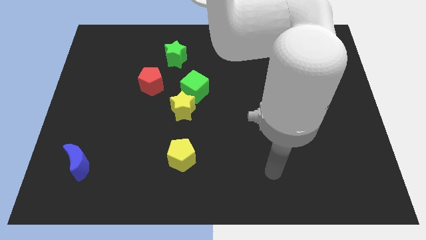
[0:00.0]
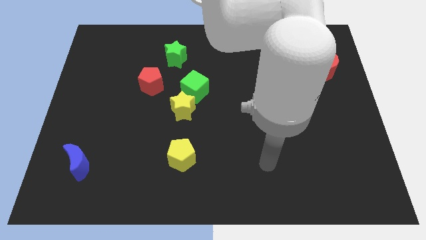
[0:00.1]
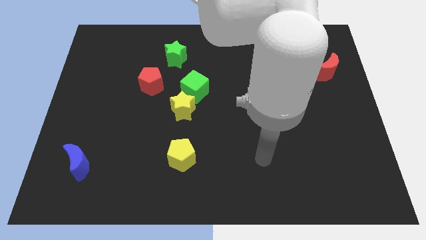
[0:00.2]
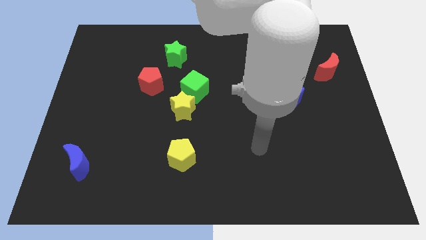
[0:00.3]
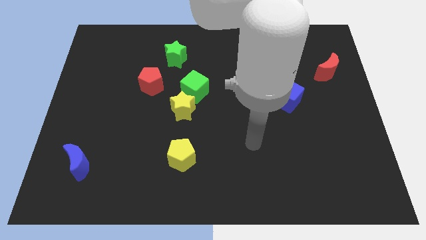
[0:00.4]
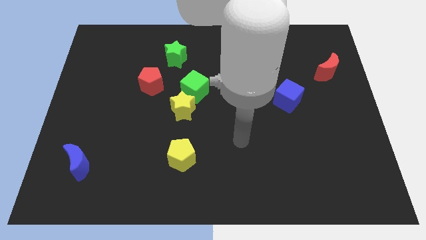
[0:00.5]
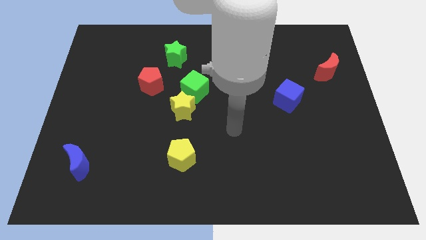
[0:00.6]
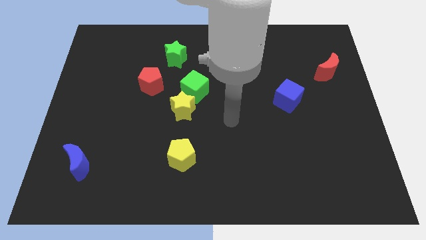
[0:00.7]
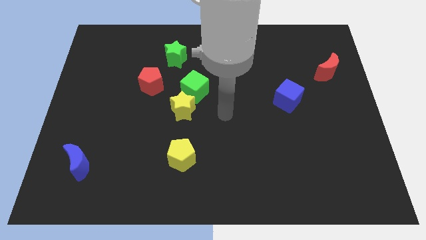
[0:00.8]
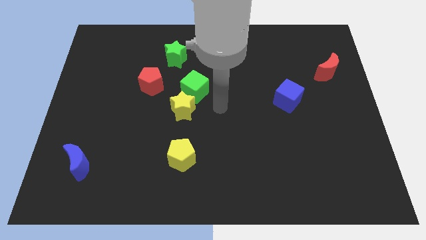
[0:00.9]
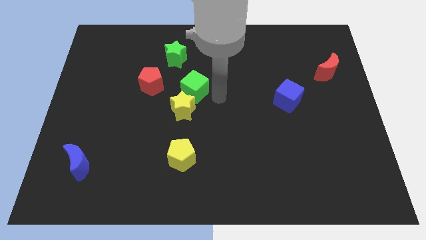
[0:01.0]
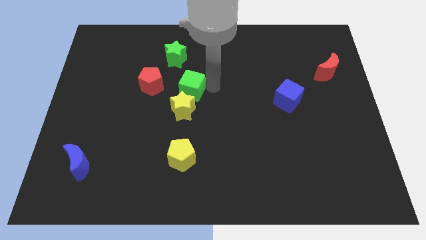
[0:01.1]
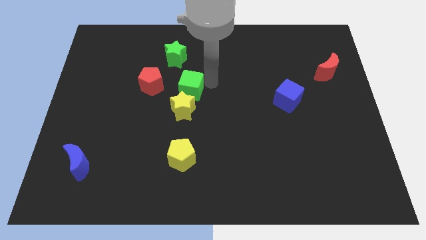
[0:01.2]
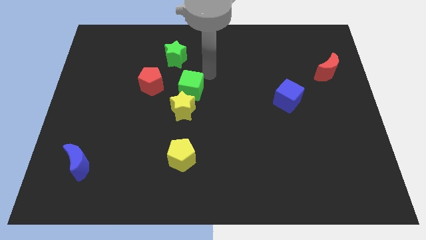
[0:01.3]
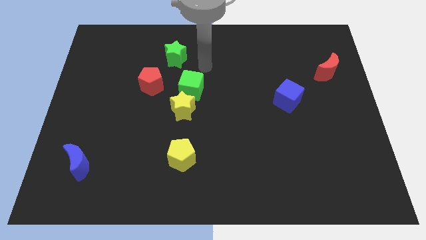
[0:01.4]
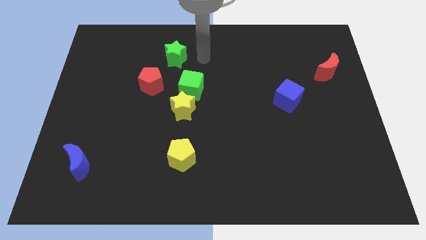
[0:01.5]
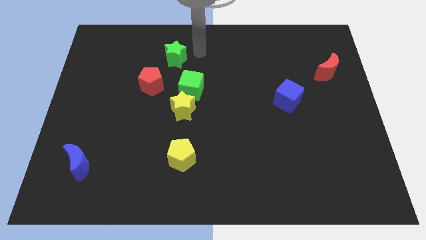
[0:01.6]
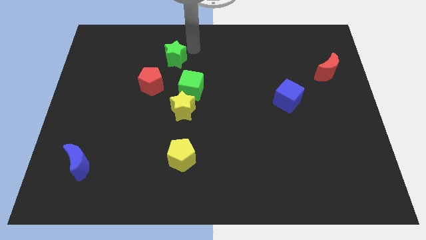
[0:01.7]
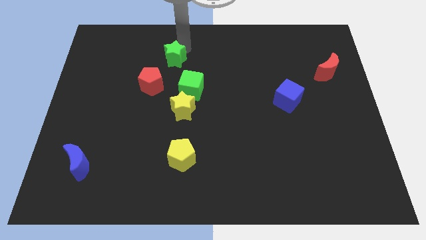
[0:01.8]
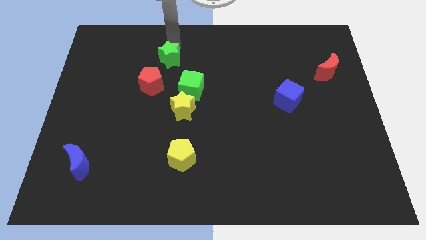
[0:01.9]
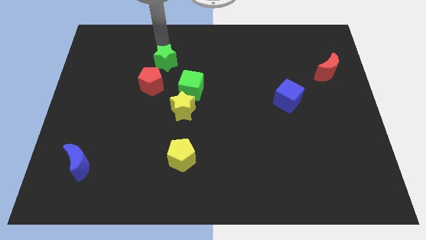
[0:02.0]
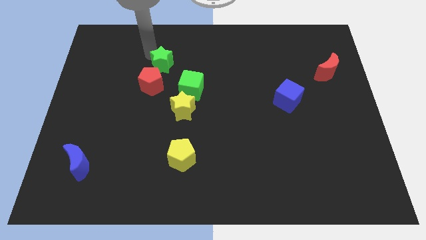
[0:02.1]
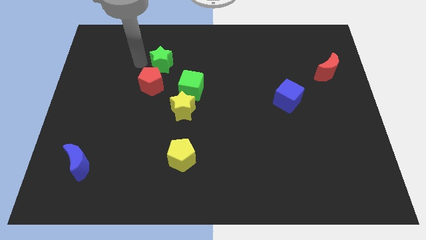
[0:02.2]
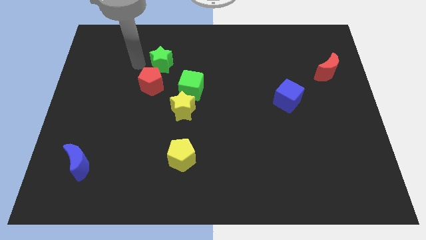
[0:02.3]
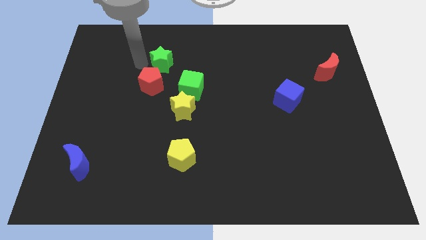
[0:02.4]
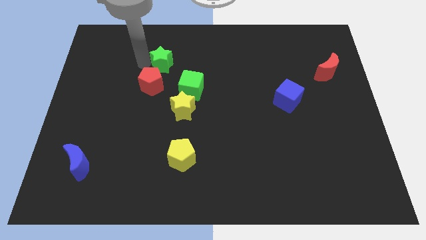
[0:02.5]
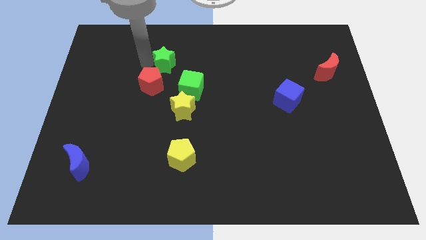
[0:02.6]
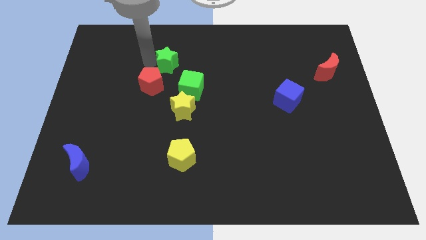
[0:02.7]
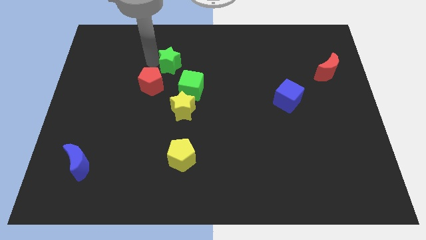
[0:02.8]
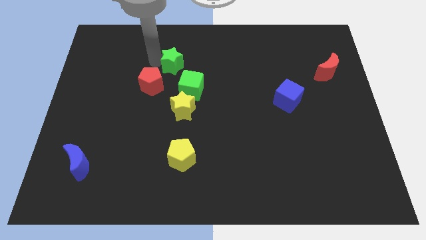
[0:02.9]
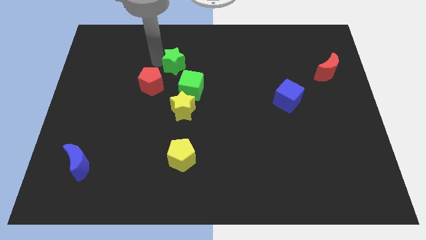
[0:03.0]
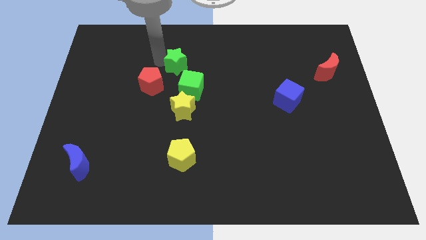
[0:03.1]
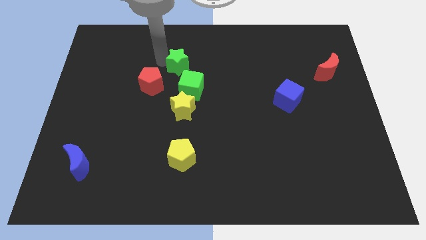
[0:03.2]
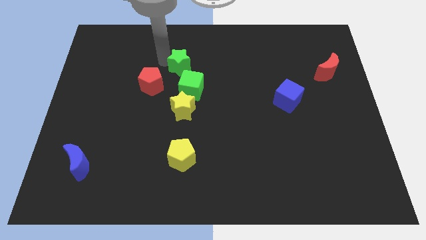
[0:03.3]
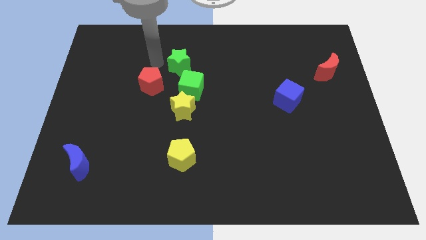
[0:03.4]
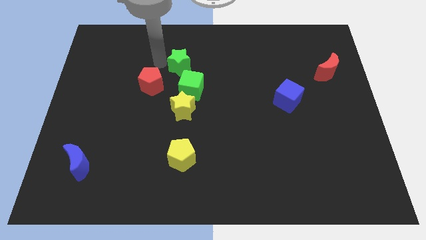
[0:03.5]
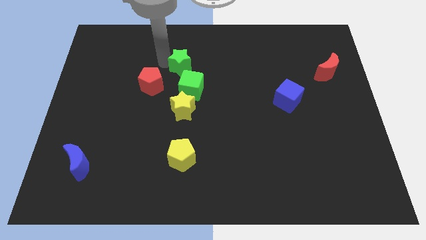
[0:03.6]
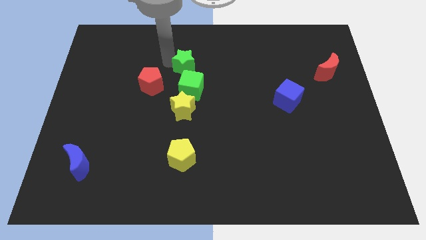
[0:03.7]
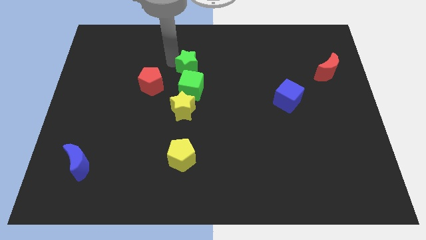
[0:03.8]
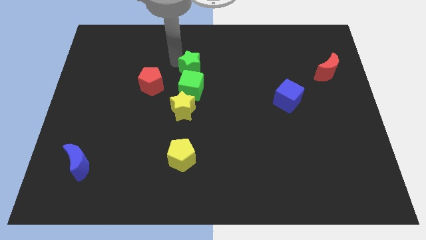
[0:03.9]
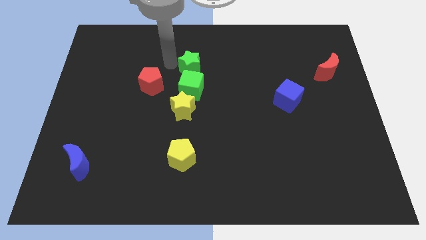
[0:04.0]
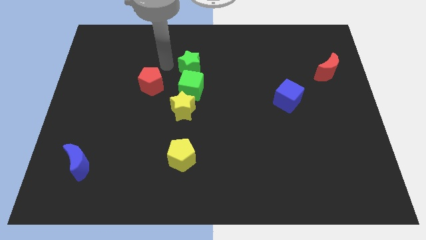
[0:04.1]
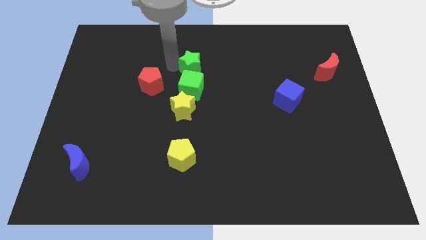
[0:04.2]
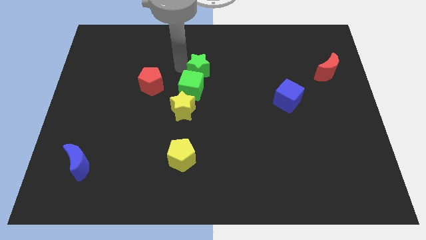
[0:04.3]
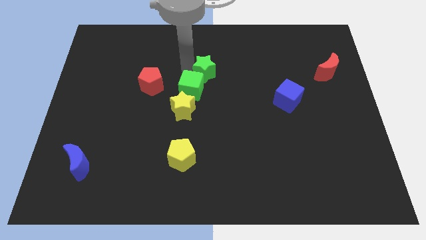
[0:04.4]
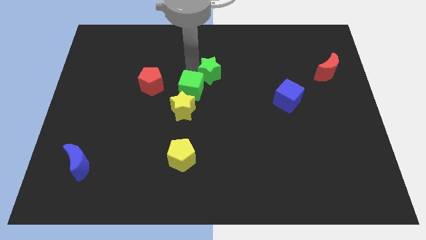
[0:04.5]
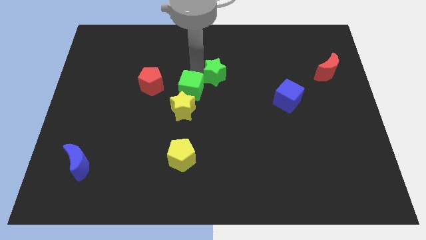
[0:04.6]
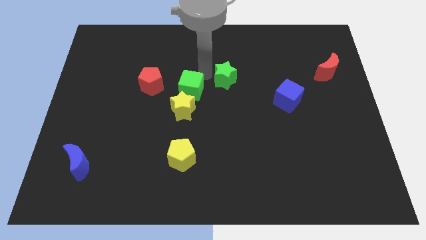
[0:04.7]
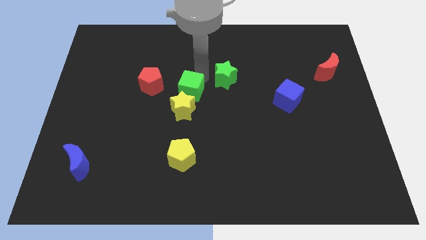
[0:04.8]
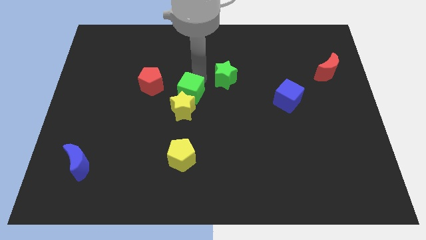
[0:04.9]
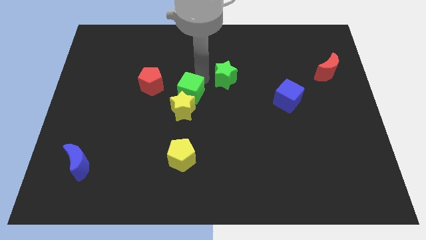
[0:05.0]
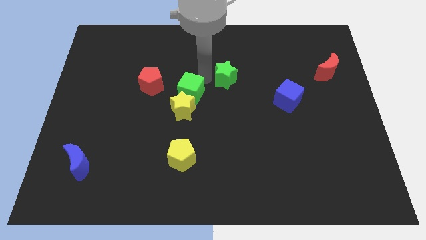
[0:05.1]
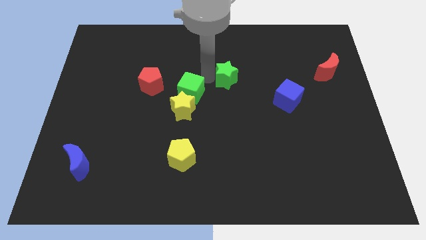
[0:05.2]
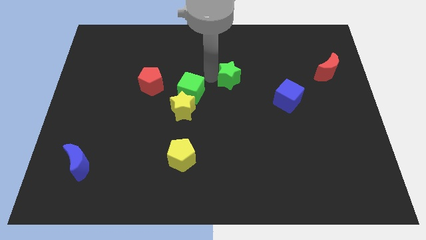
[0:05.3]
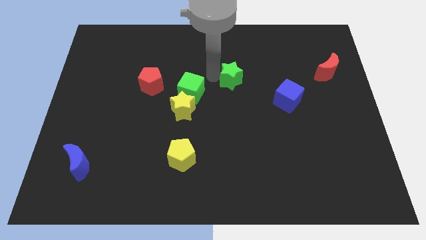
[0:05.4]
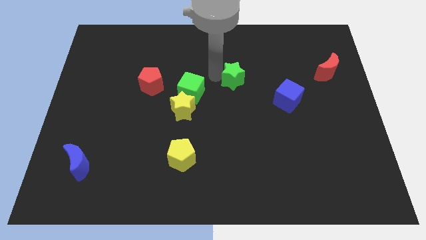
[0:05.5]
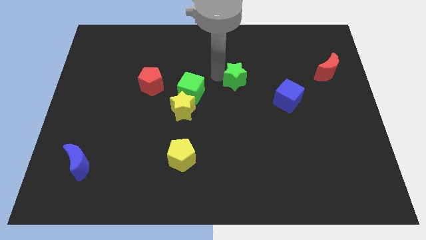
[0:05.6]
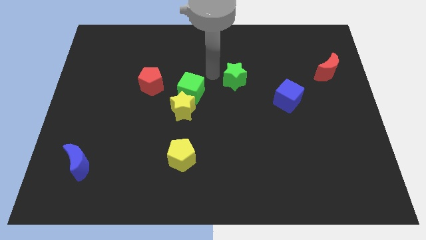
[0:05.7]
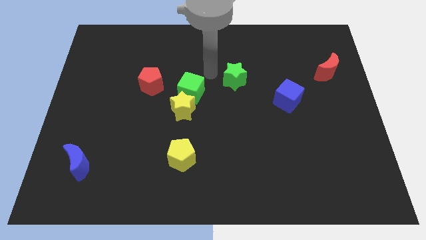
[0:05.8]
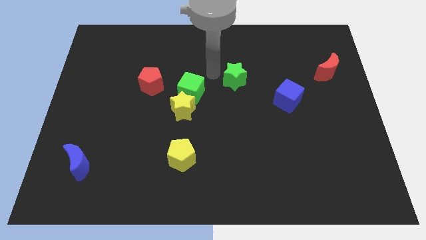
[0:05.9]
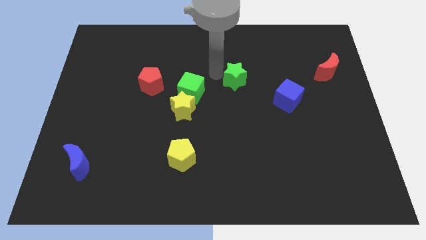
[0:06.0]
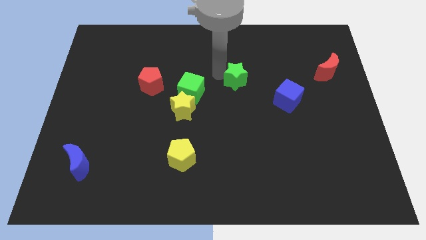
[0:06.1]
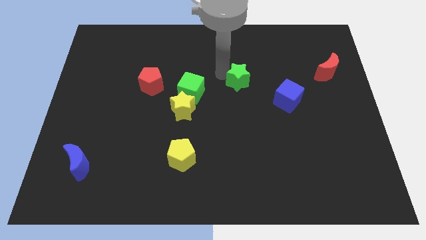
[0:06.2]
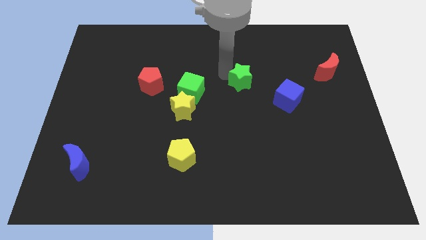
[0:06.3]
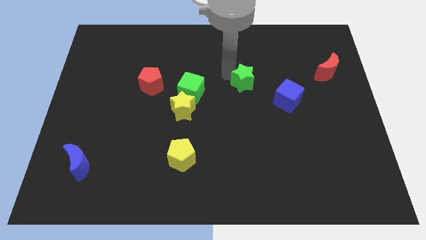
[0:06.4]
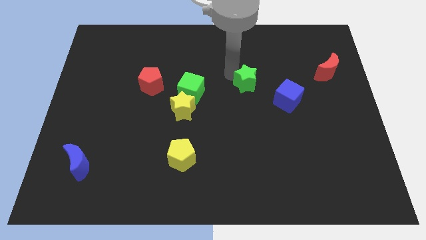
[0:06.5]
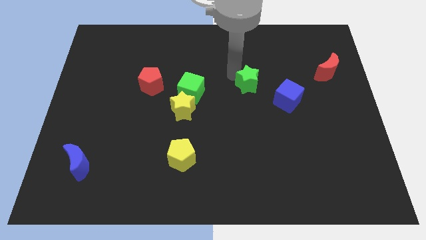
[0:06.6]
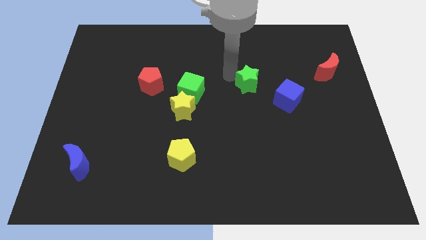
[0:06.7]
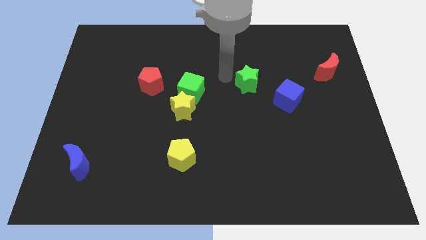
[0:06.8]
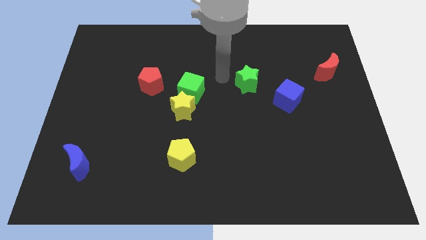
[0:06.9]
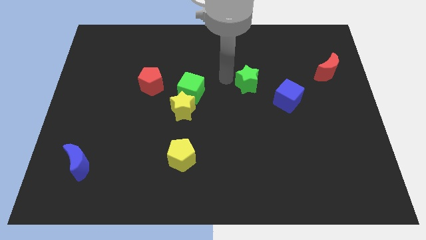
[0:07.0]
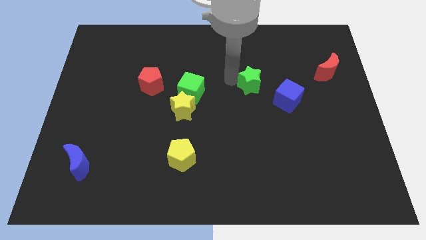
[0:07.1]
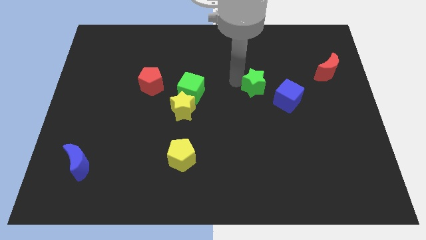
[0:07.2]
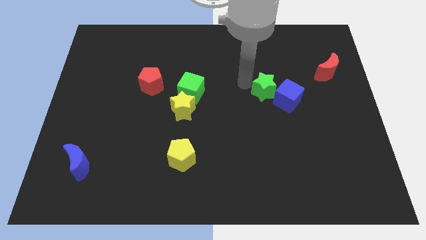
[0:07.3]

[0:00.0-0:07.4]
push the green star to the blue cube

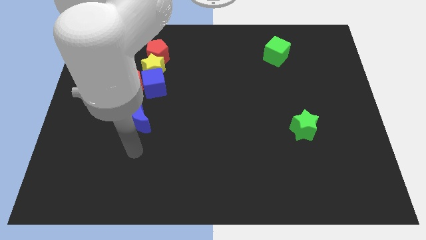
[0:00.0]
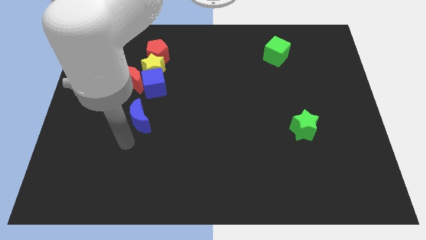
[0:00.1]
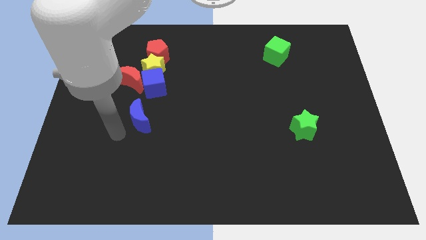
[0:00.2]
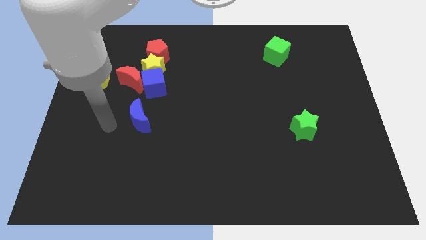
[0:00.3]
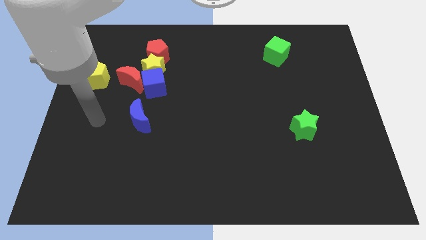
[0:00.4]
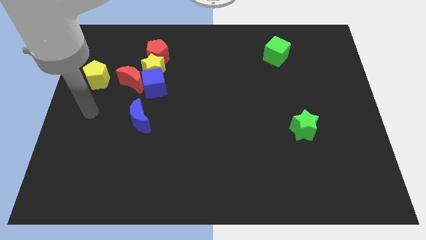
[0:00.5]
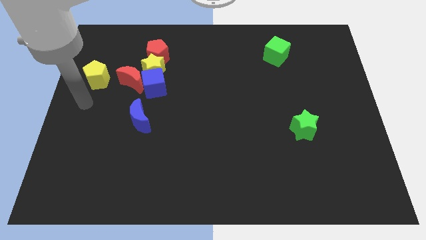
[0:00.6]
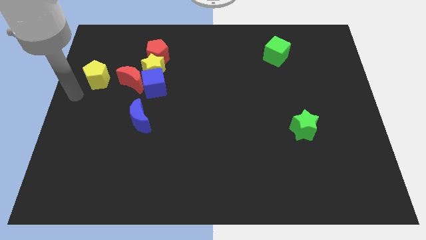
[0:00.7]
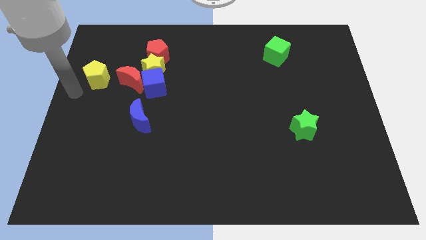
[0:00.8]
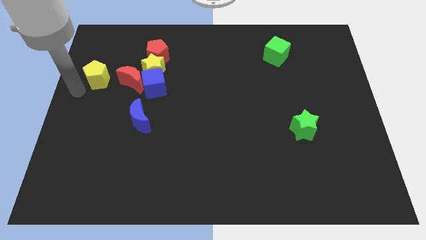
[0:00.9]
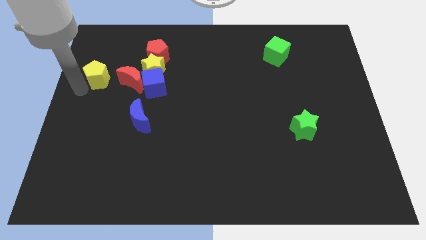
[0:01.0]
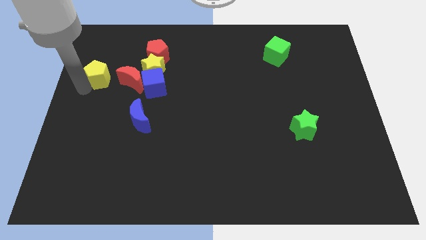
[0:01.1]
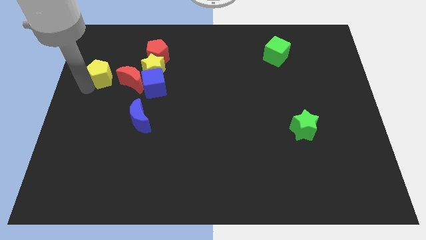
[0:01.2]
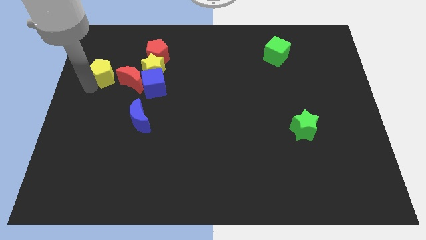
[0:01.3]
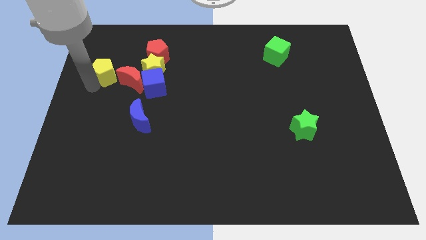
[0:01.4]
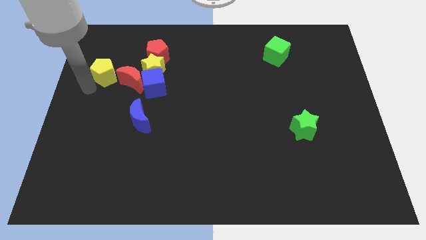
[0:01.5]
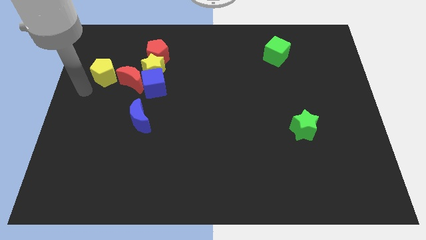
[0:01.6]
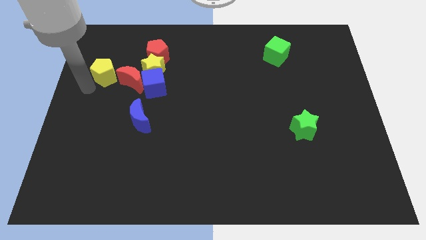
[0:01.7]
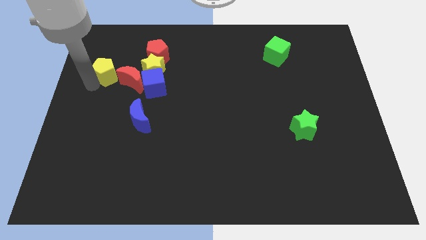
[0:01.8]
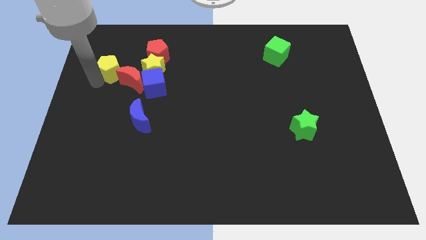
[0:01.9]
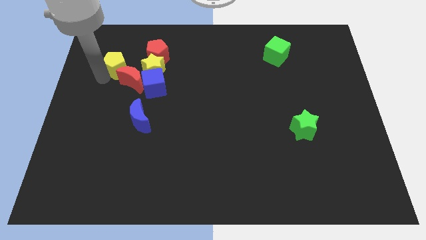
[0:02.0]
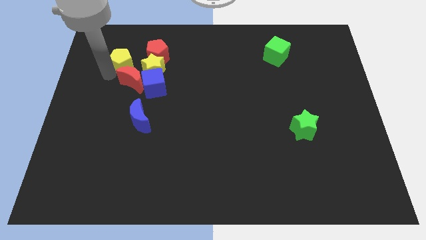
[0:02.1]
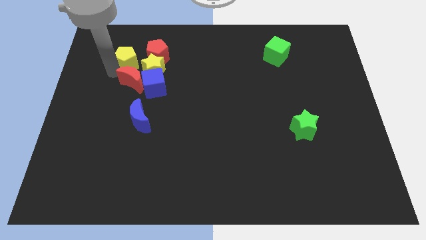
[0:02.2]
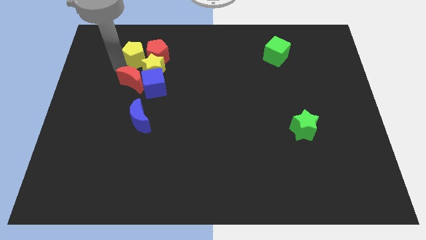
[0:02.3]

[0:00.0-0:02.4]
push the yellow pentagon to the red pentagon
